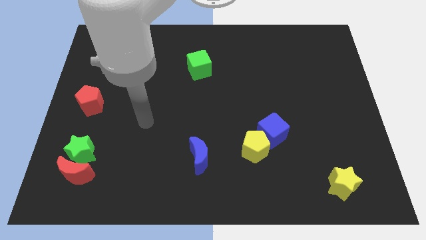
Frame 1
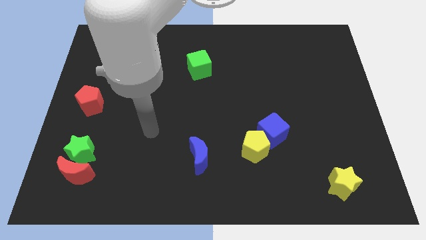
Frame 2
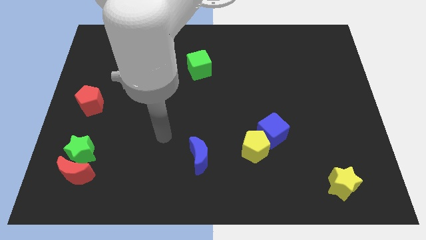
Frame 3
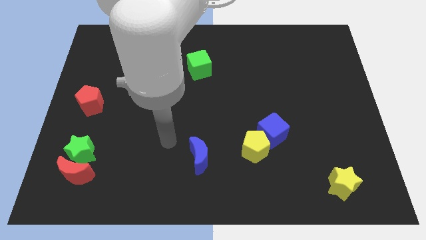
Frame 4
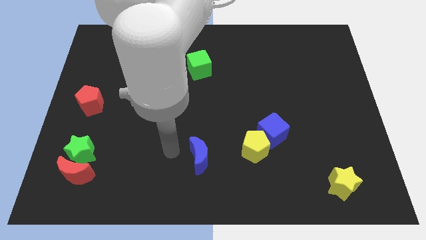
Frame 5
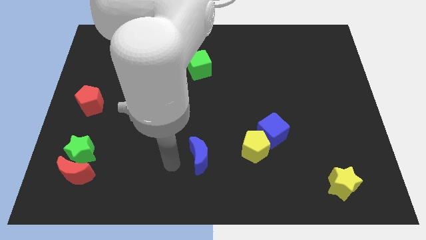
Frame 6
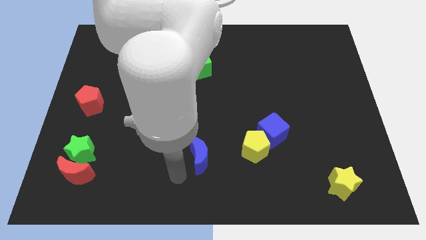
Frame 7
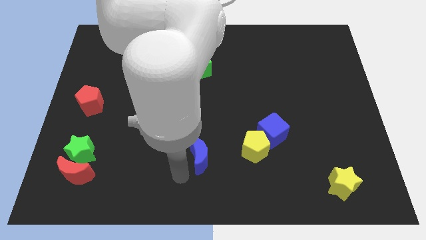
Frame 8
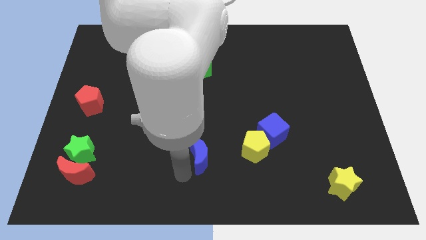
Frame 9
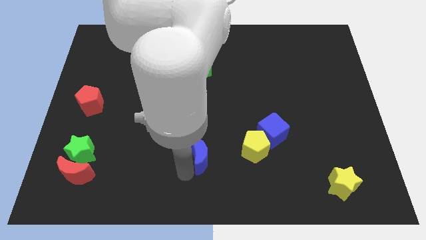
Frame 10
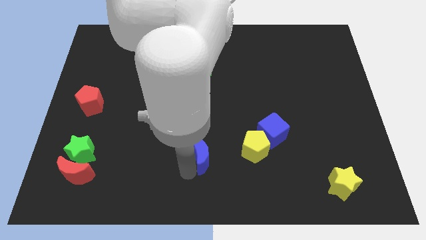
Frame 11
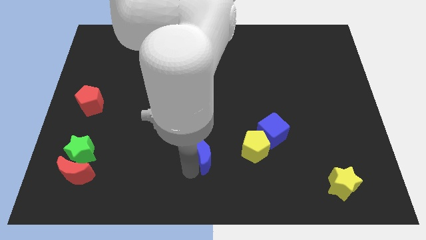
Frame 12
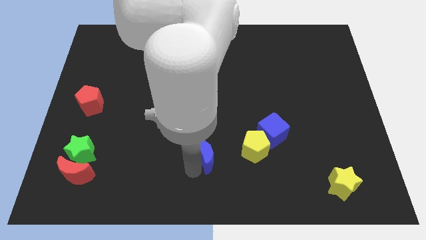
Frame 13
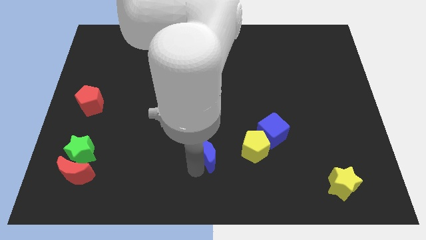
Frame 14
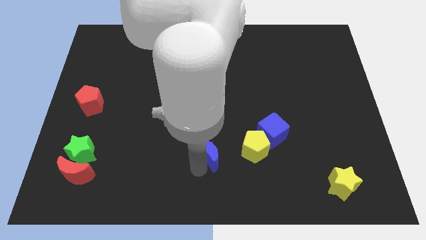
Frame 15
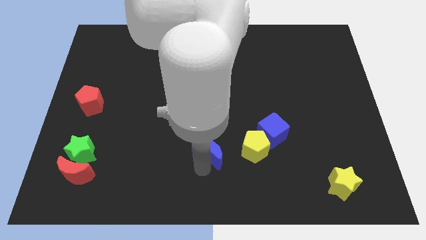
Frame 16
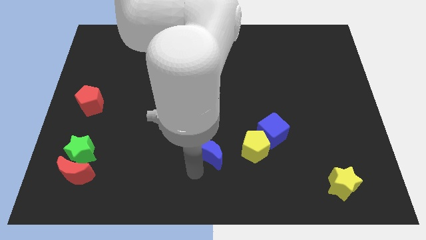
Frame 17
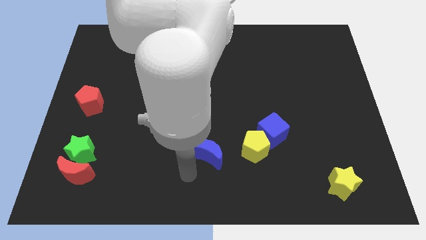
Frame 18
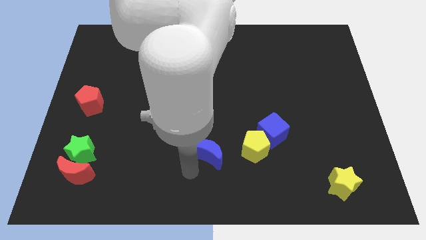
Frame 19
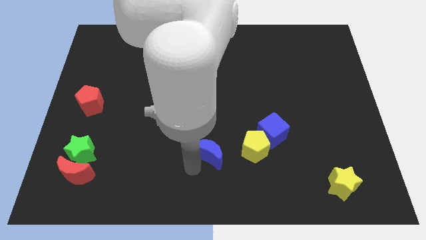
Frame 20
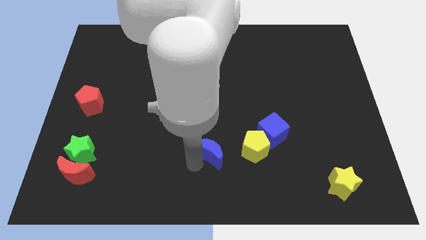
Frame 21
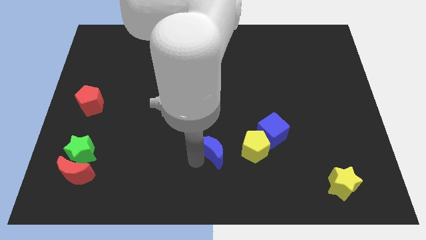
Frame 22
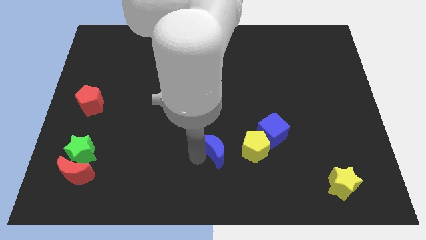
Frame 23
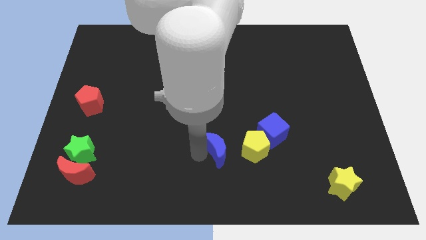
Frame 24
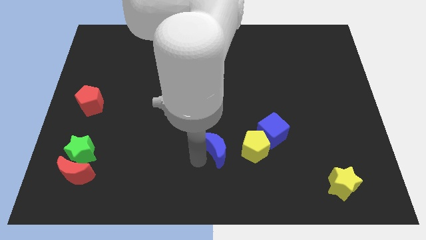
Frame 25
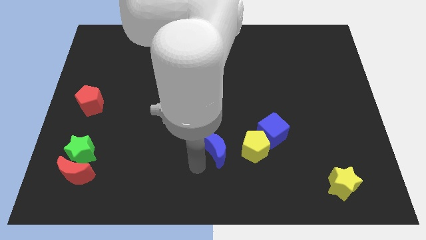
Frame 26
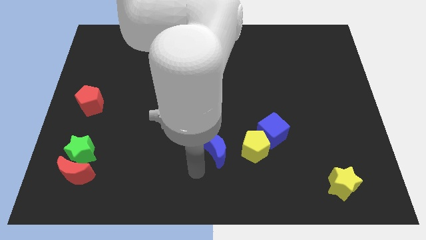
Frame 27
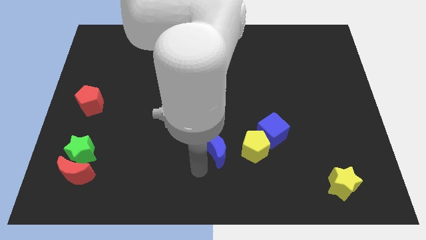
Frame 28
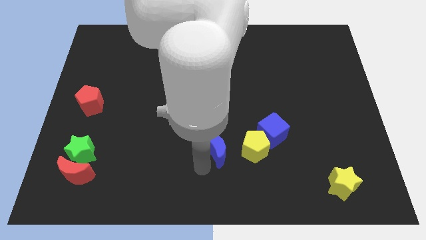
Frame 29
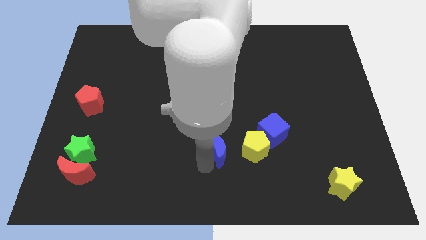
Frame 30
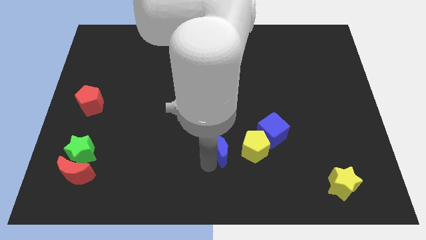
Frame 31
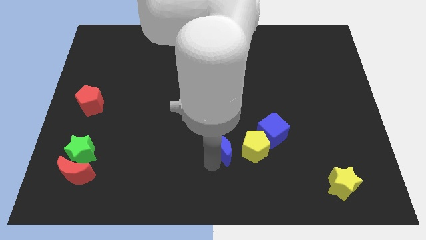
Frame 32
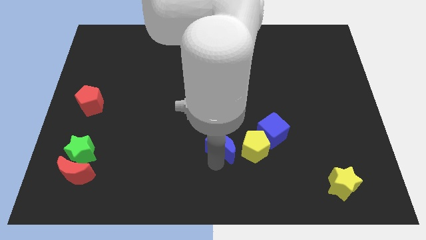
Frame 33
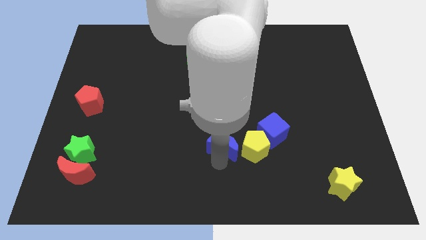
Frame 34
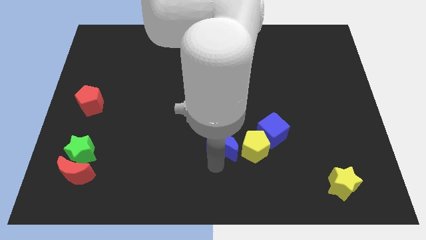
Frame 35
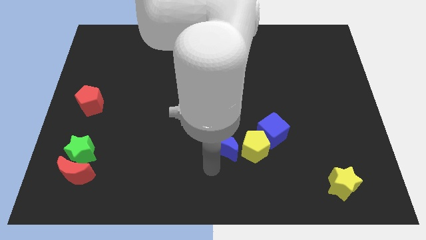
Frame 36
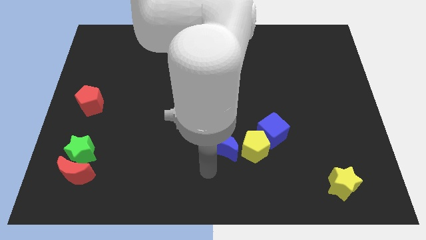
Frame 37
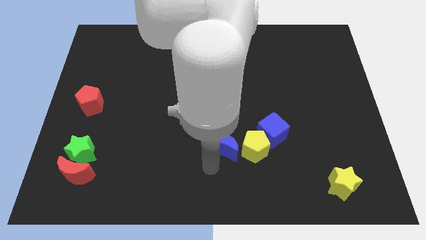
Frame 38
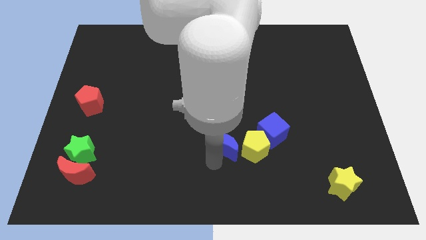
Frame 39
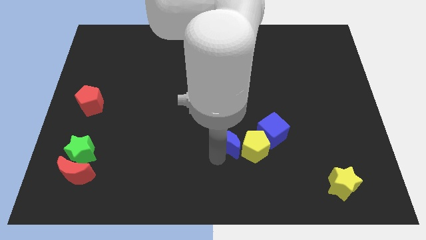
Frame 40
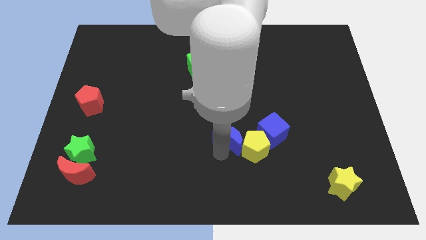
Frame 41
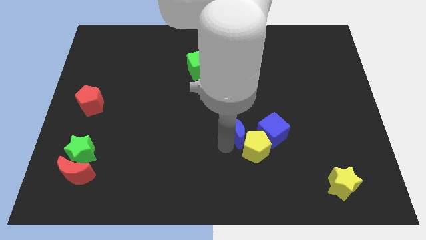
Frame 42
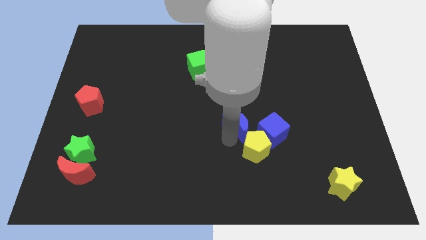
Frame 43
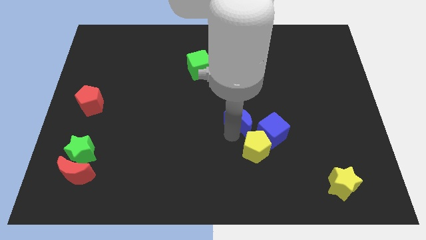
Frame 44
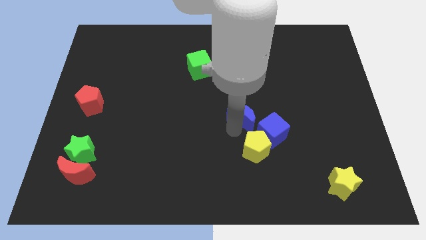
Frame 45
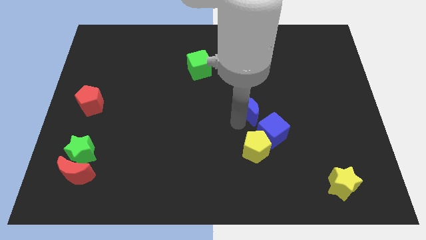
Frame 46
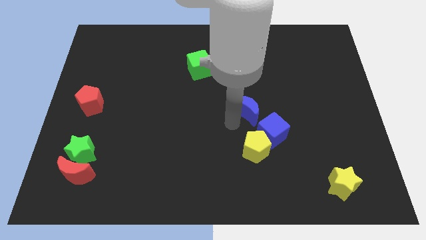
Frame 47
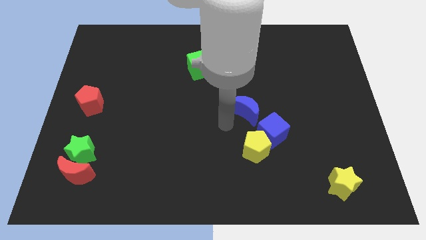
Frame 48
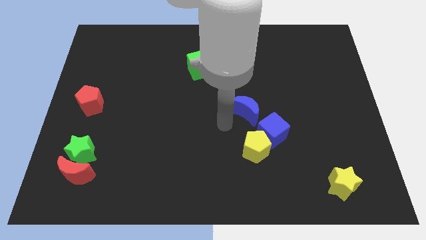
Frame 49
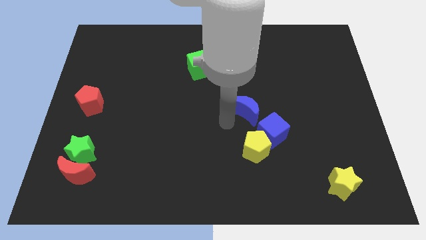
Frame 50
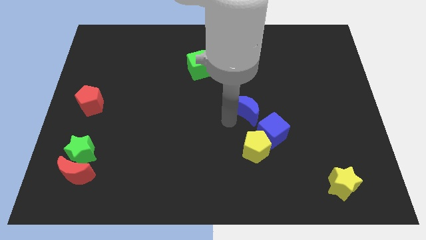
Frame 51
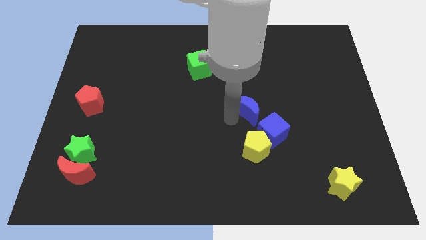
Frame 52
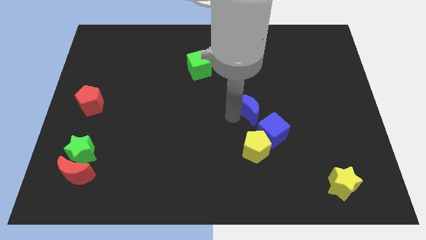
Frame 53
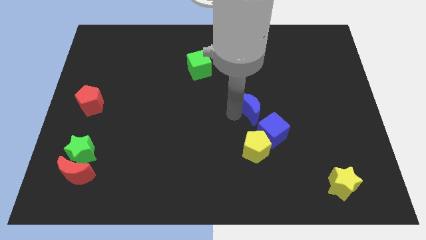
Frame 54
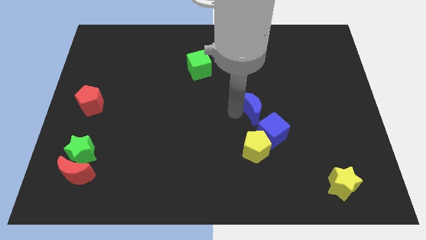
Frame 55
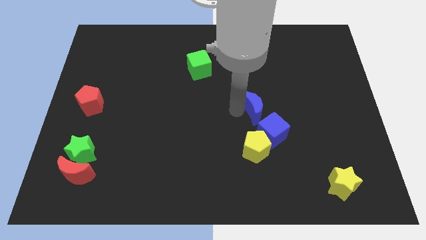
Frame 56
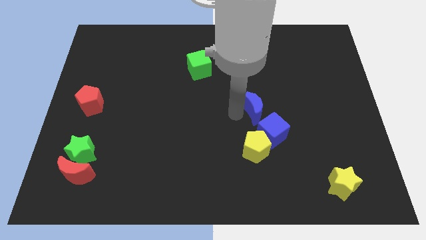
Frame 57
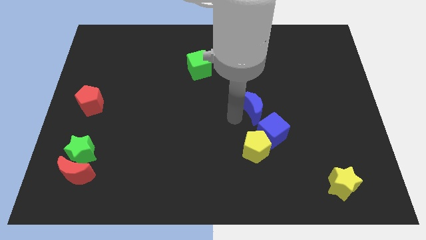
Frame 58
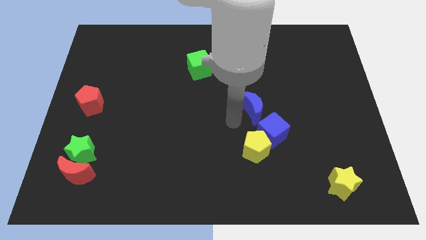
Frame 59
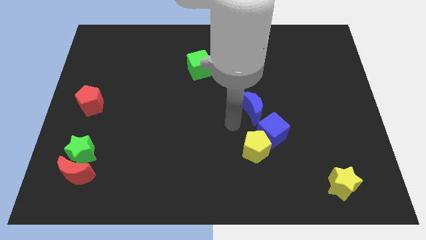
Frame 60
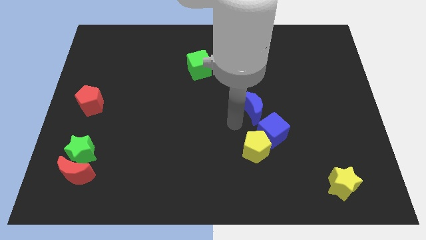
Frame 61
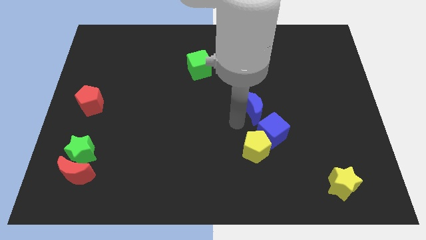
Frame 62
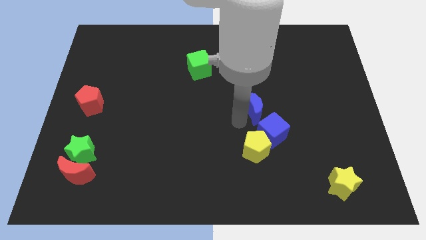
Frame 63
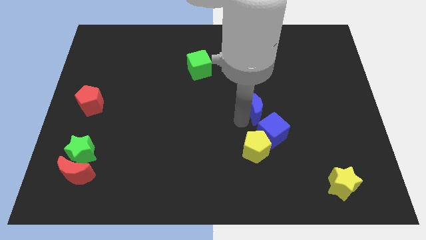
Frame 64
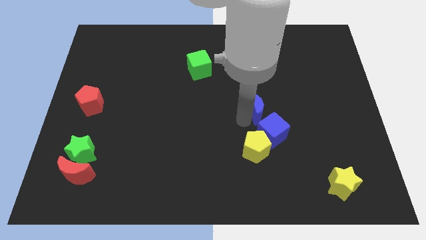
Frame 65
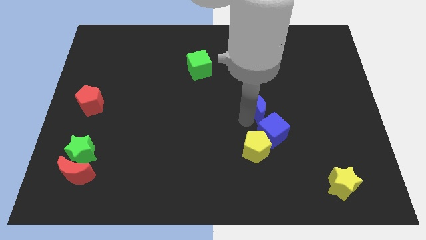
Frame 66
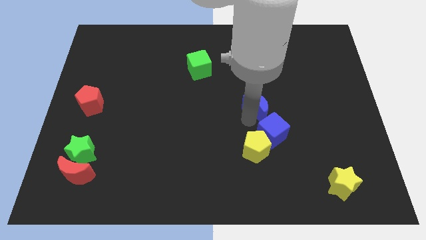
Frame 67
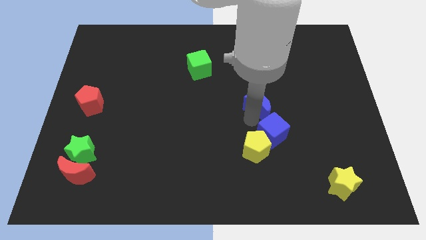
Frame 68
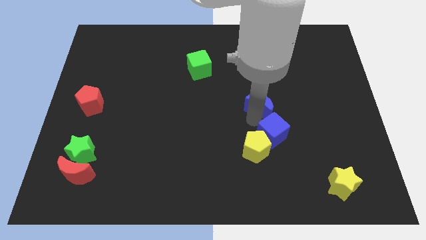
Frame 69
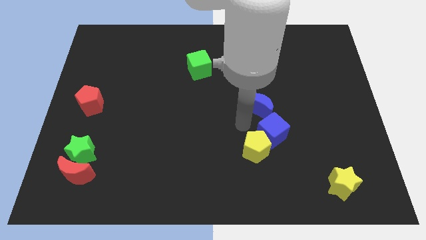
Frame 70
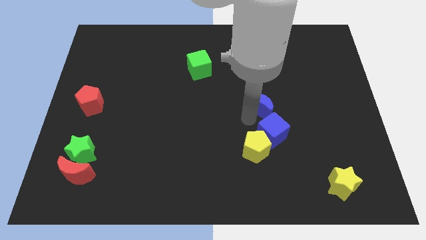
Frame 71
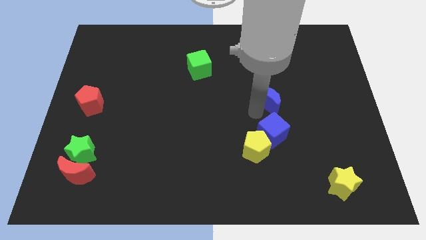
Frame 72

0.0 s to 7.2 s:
move the blue moon up and right diagonally

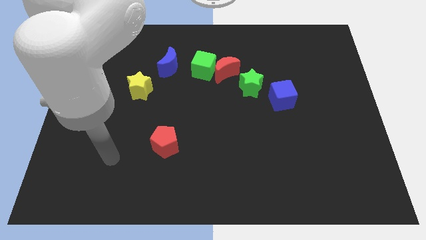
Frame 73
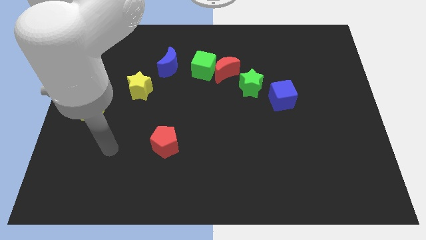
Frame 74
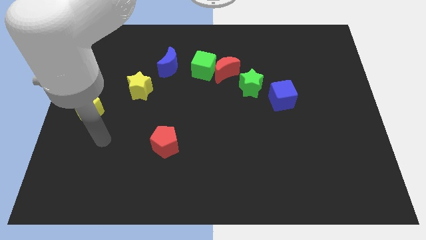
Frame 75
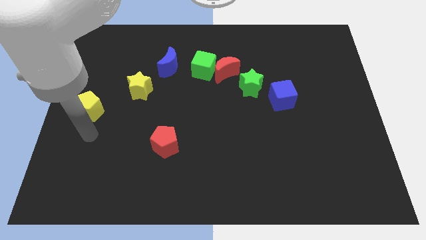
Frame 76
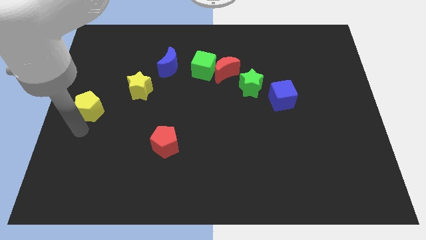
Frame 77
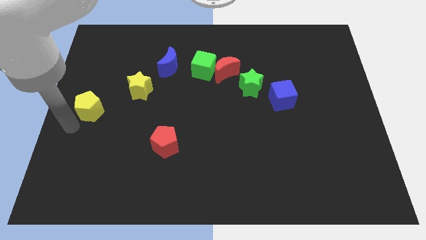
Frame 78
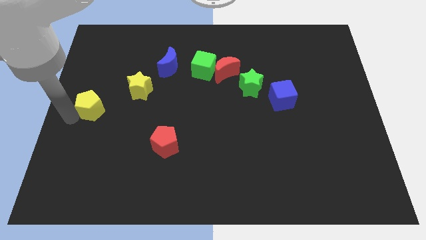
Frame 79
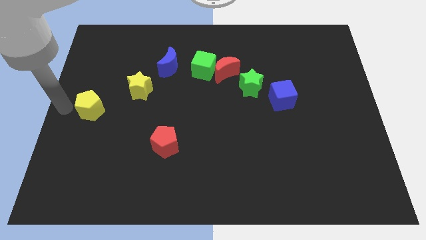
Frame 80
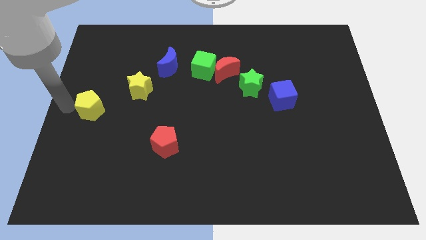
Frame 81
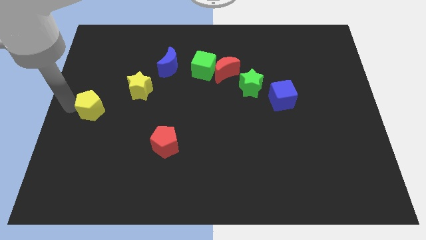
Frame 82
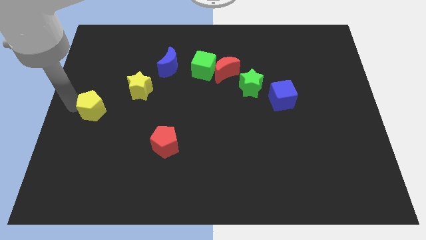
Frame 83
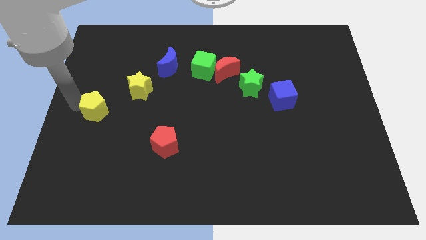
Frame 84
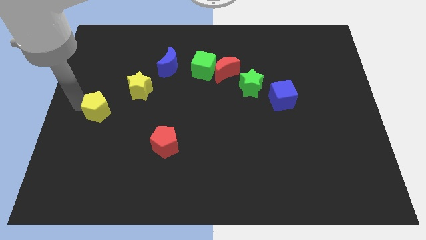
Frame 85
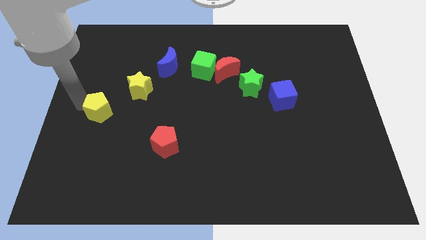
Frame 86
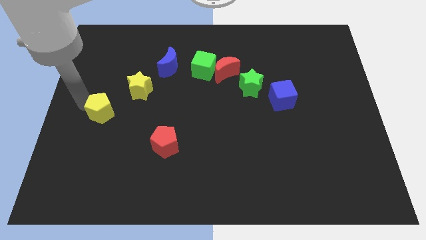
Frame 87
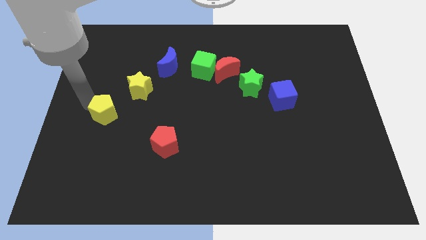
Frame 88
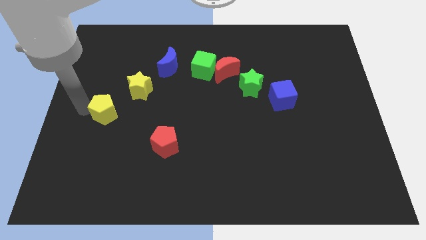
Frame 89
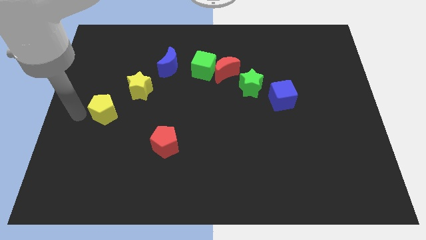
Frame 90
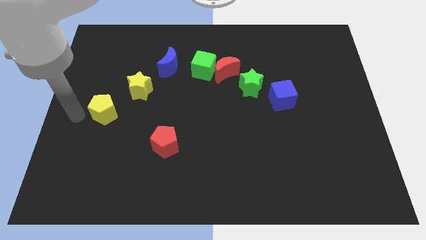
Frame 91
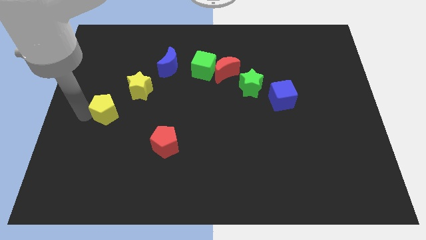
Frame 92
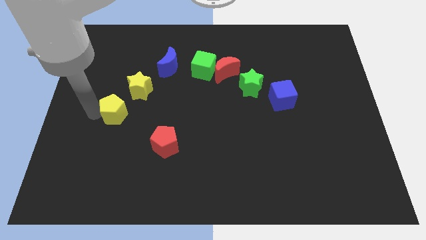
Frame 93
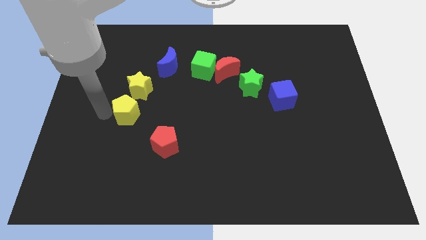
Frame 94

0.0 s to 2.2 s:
move the yellow pentagon right a bit
